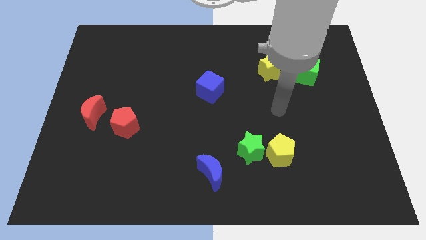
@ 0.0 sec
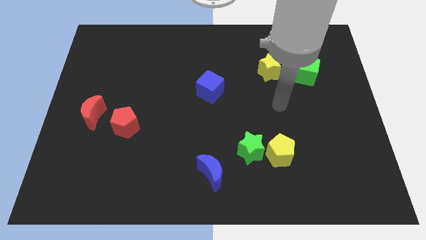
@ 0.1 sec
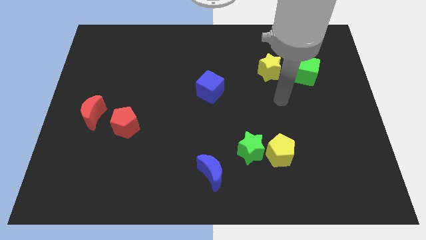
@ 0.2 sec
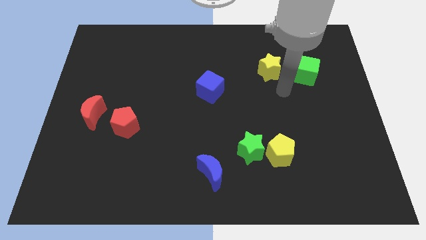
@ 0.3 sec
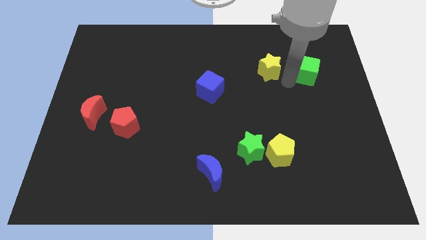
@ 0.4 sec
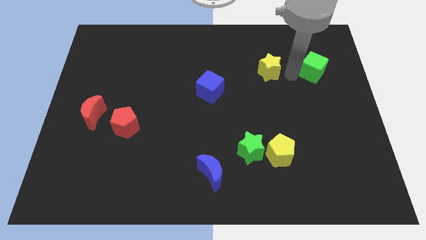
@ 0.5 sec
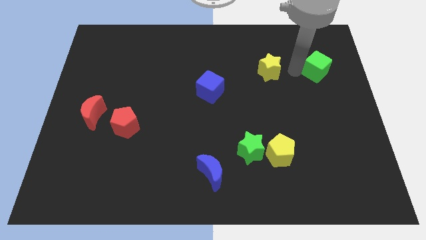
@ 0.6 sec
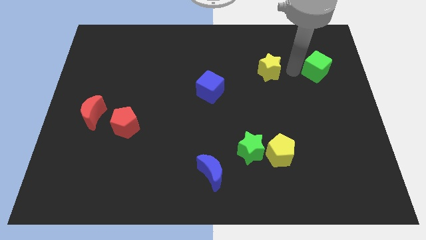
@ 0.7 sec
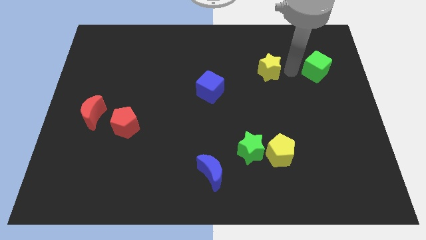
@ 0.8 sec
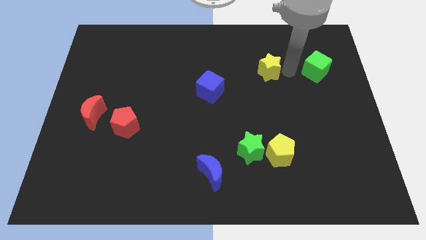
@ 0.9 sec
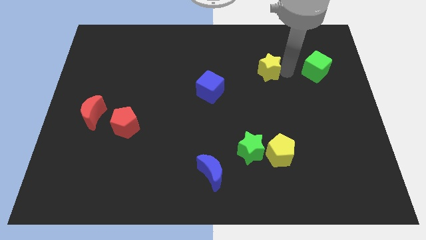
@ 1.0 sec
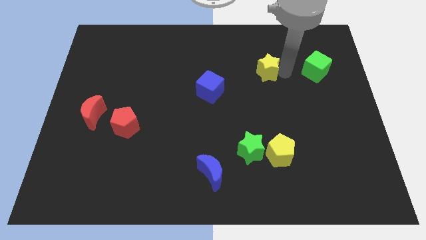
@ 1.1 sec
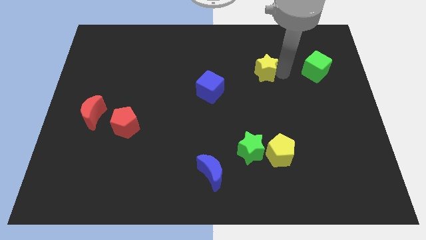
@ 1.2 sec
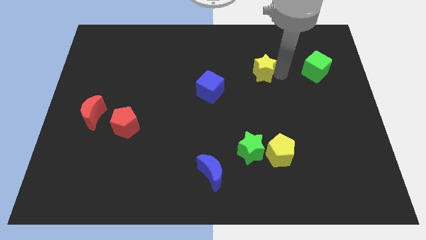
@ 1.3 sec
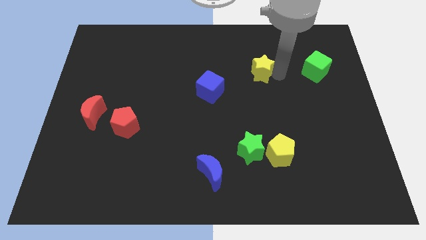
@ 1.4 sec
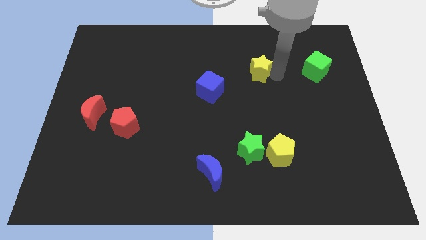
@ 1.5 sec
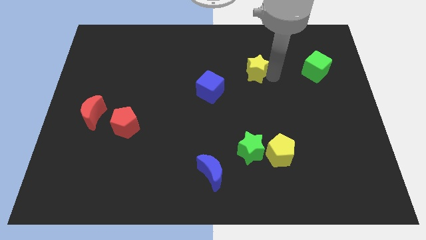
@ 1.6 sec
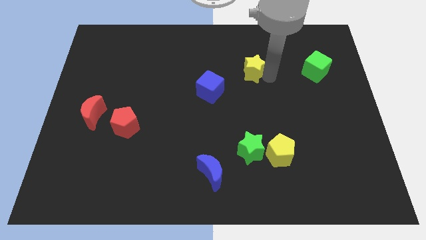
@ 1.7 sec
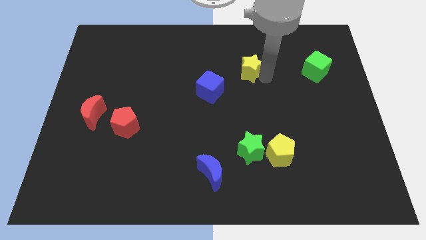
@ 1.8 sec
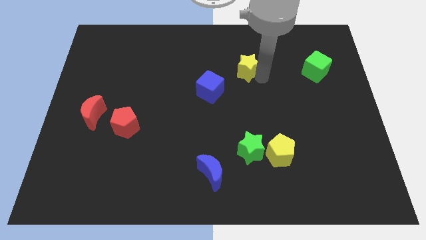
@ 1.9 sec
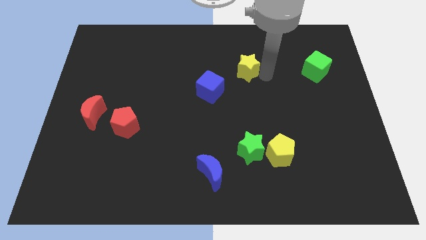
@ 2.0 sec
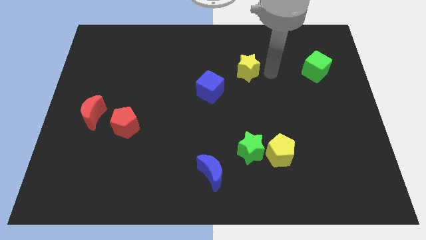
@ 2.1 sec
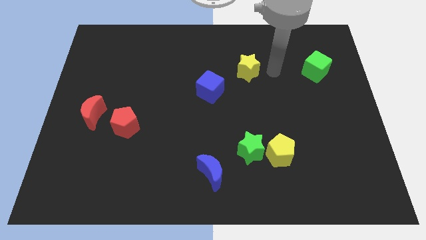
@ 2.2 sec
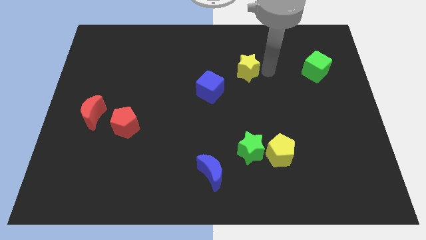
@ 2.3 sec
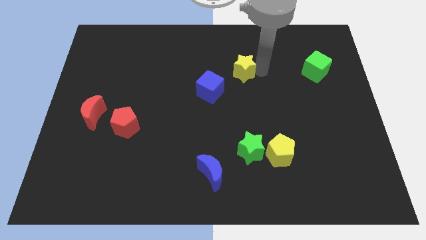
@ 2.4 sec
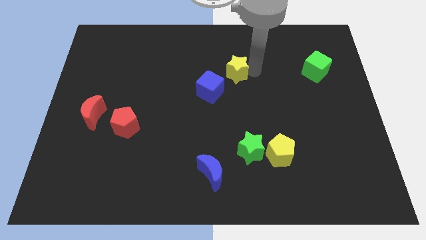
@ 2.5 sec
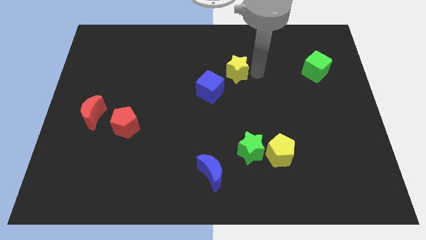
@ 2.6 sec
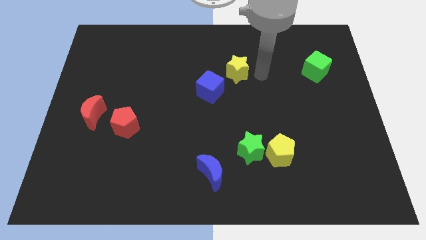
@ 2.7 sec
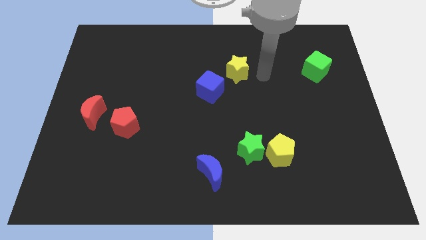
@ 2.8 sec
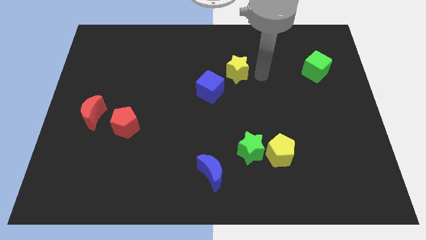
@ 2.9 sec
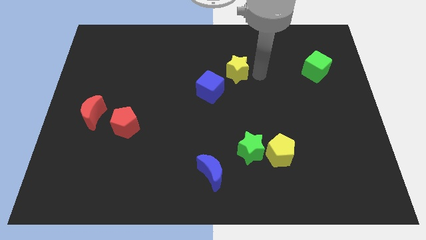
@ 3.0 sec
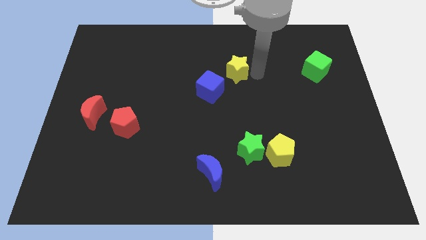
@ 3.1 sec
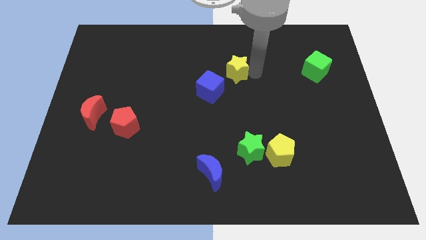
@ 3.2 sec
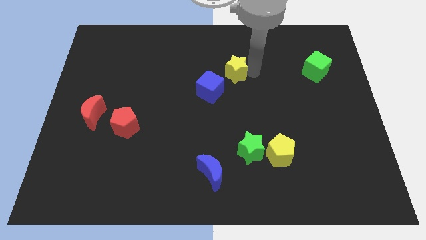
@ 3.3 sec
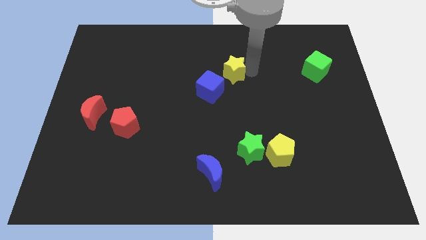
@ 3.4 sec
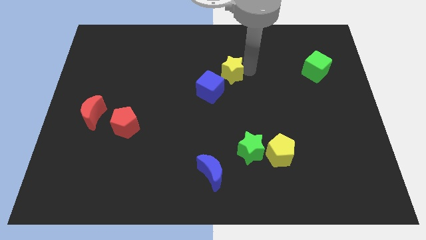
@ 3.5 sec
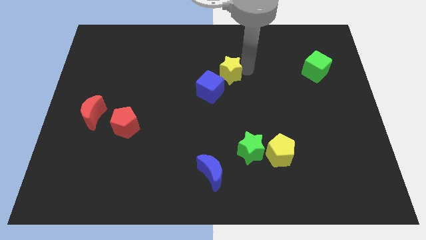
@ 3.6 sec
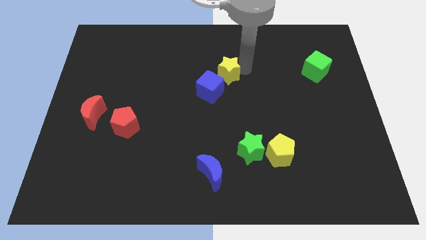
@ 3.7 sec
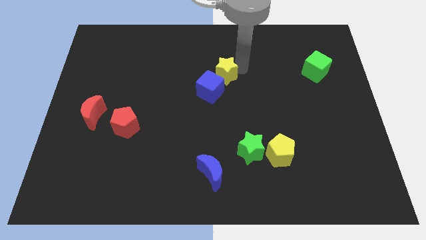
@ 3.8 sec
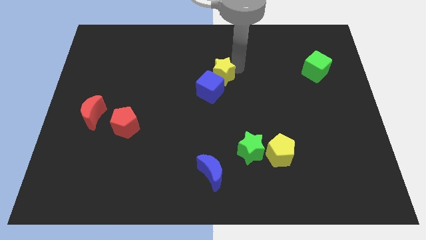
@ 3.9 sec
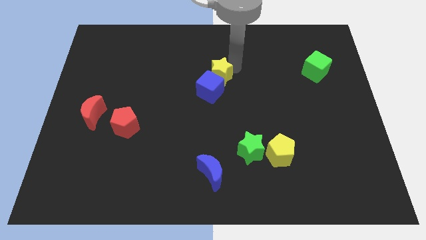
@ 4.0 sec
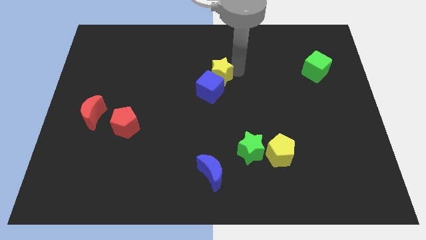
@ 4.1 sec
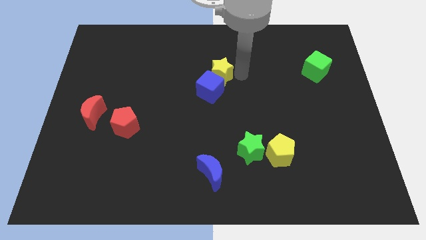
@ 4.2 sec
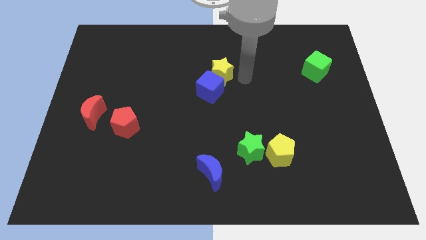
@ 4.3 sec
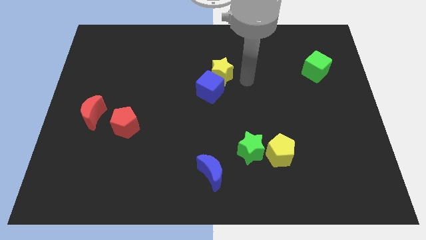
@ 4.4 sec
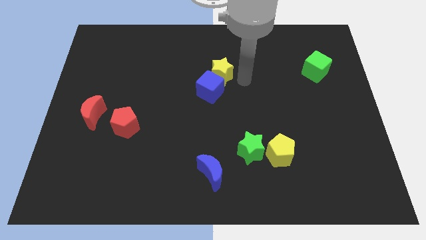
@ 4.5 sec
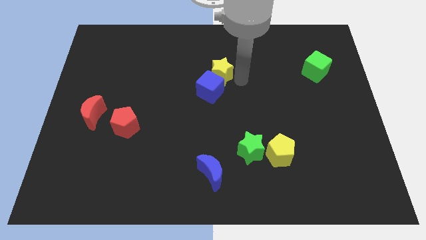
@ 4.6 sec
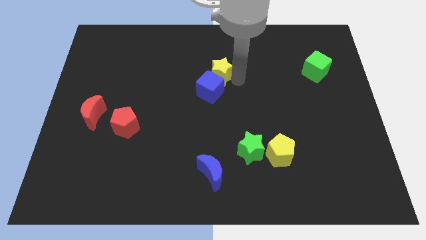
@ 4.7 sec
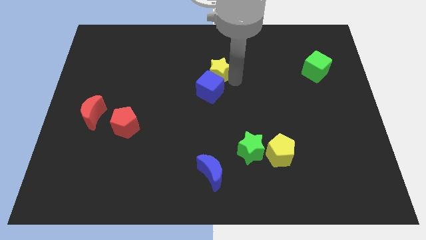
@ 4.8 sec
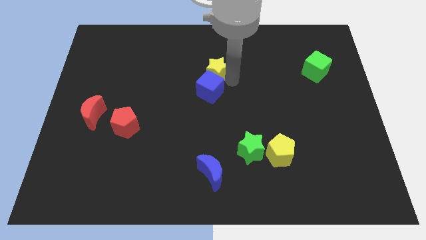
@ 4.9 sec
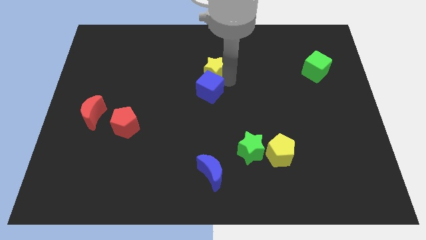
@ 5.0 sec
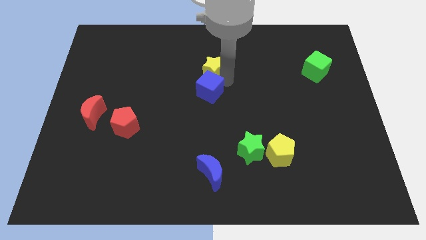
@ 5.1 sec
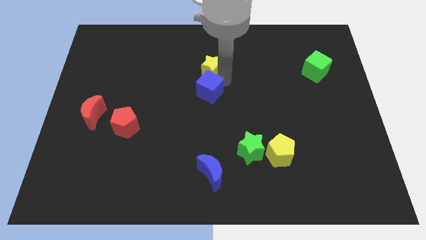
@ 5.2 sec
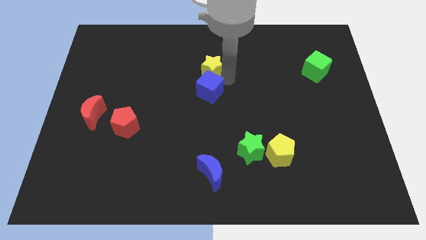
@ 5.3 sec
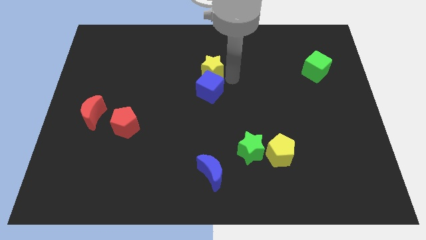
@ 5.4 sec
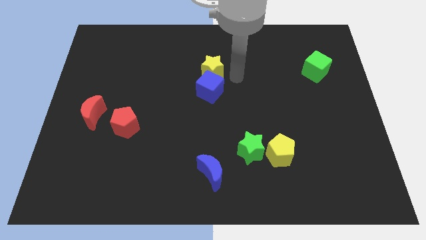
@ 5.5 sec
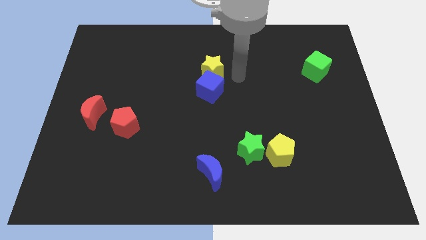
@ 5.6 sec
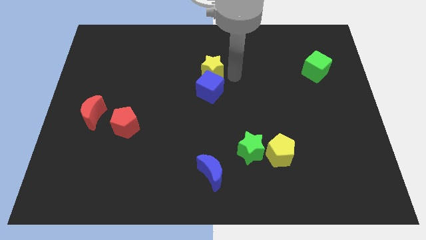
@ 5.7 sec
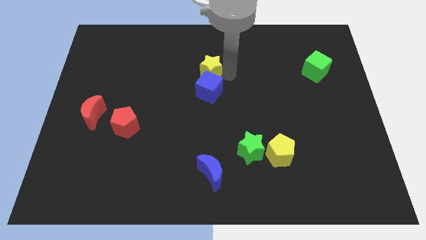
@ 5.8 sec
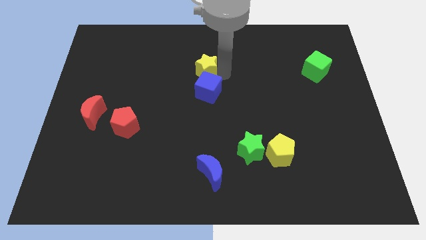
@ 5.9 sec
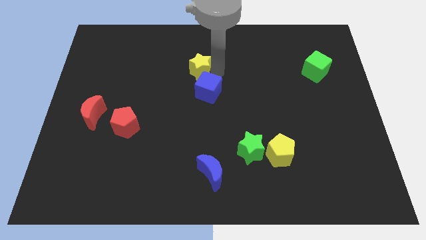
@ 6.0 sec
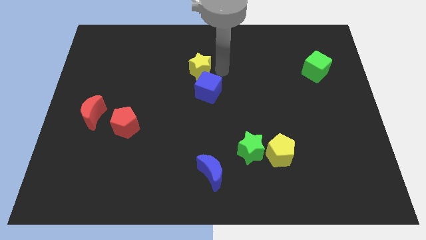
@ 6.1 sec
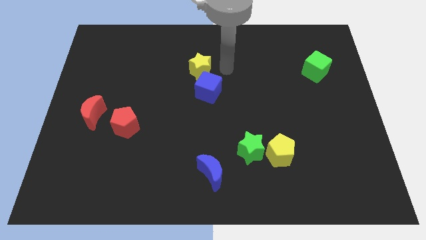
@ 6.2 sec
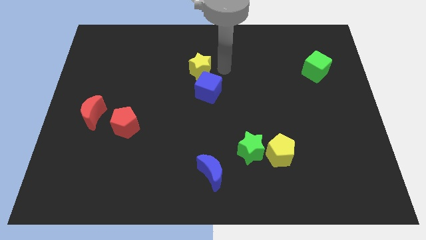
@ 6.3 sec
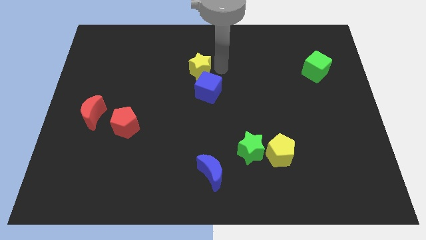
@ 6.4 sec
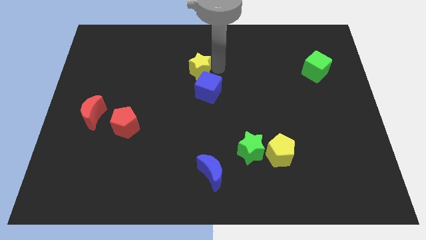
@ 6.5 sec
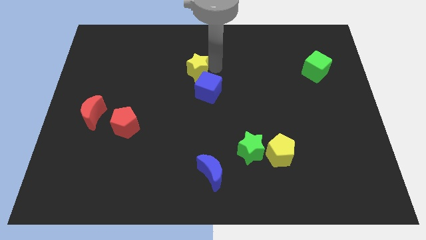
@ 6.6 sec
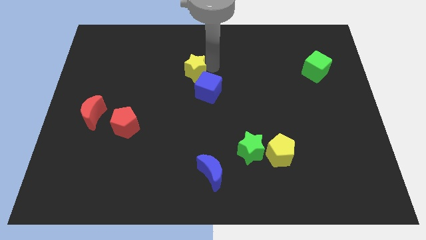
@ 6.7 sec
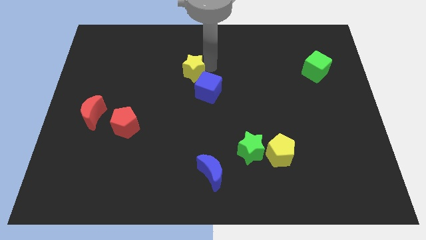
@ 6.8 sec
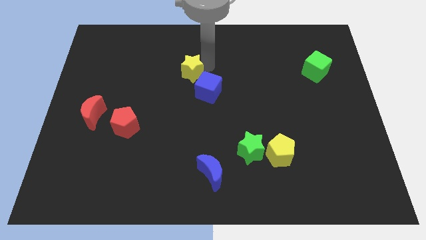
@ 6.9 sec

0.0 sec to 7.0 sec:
slide the yellow star left

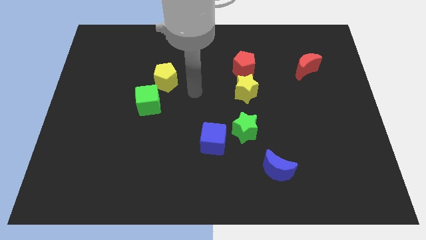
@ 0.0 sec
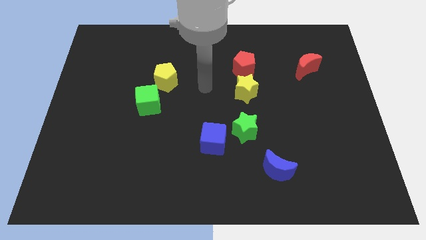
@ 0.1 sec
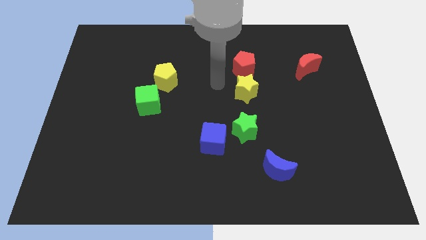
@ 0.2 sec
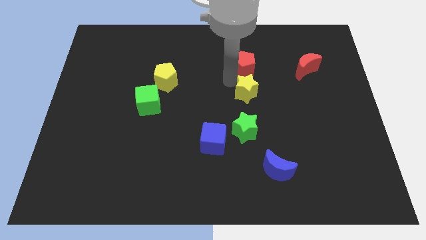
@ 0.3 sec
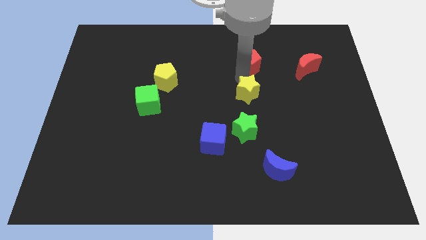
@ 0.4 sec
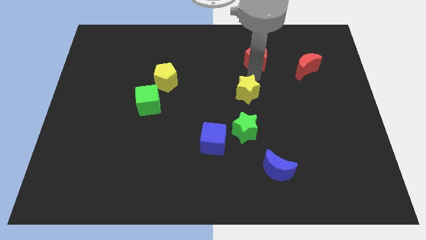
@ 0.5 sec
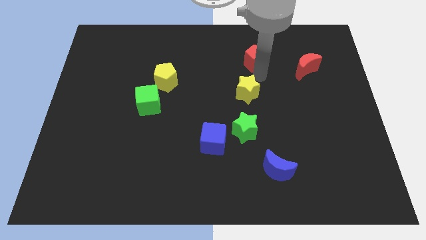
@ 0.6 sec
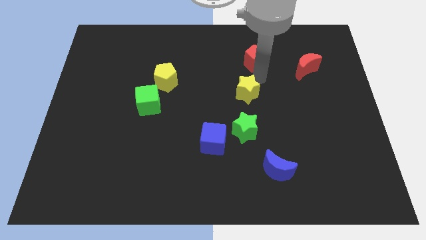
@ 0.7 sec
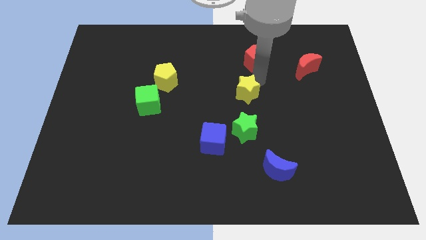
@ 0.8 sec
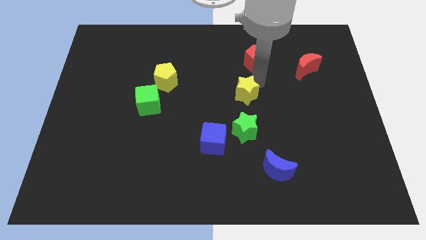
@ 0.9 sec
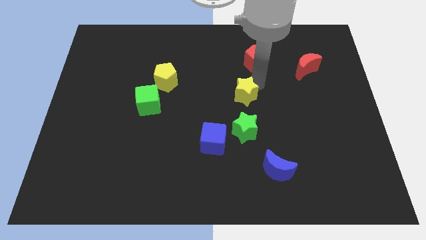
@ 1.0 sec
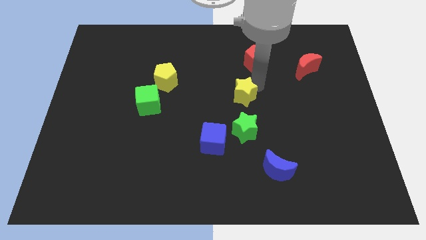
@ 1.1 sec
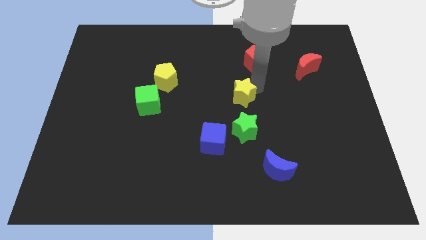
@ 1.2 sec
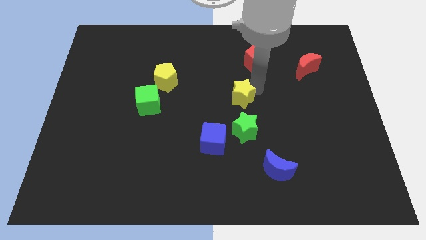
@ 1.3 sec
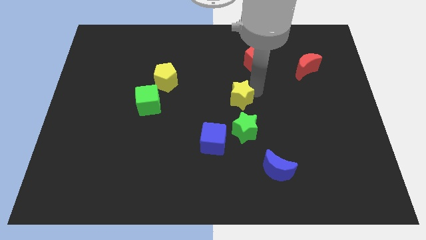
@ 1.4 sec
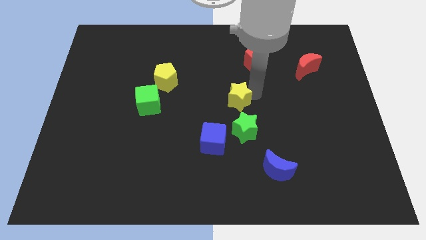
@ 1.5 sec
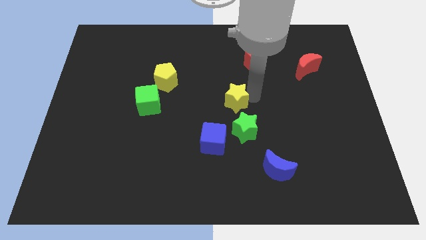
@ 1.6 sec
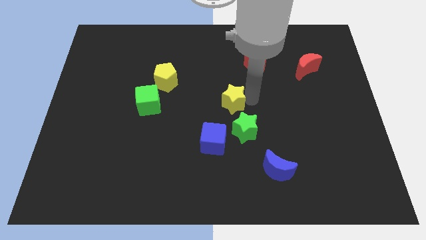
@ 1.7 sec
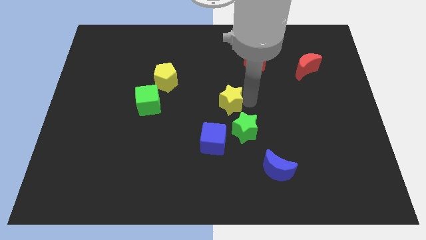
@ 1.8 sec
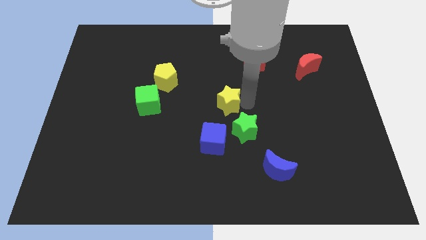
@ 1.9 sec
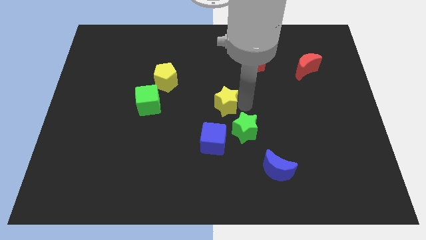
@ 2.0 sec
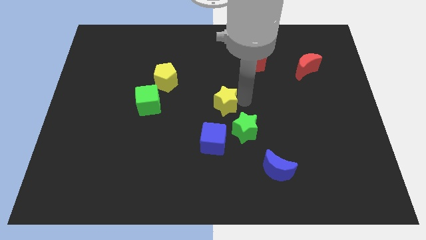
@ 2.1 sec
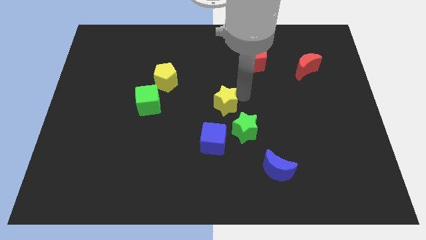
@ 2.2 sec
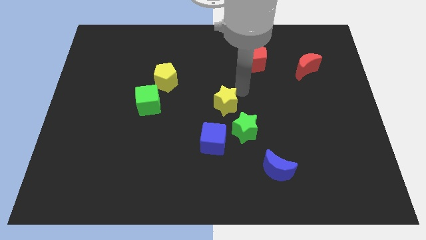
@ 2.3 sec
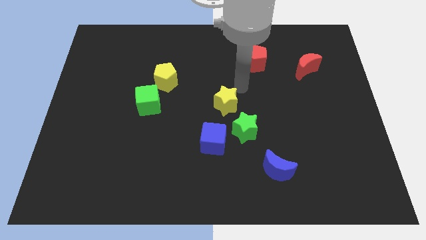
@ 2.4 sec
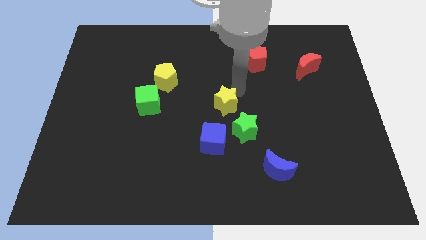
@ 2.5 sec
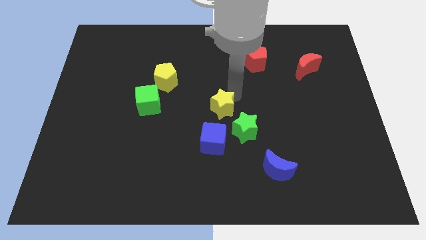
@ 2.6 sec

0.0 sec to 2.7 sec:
move the yellow star down and then left a little
